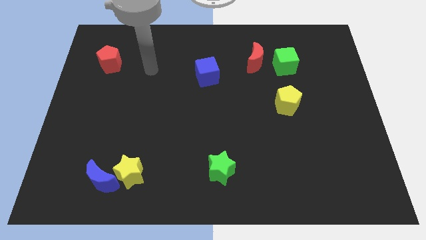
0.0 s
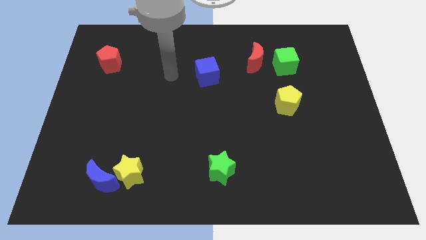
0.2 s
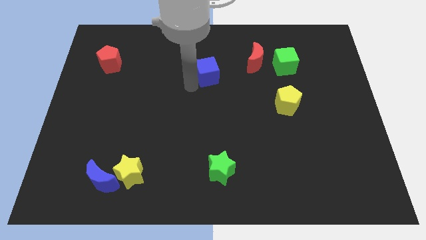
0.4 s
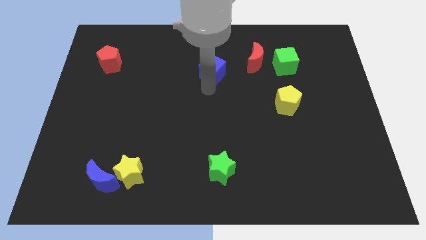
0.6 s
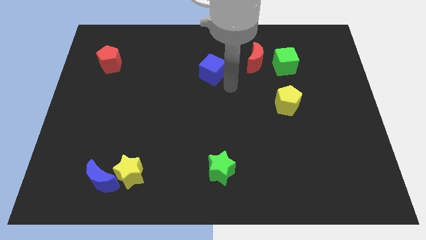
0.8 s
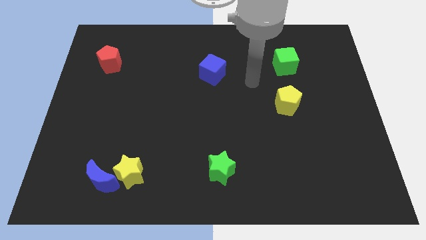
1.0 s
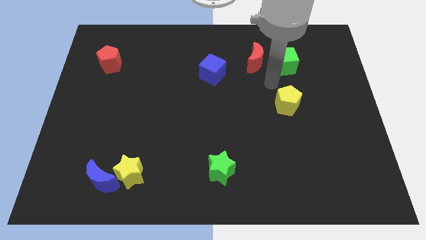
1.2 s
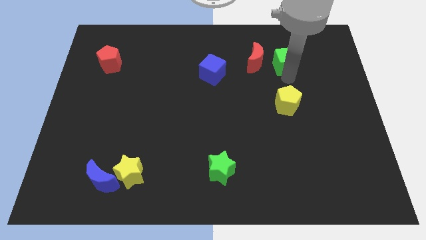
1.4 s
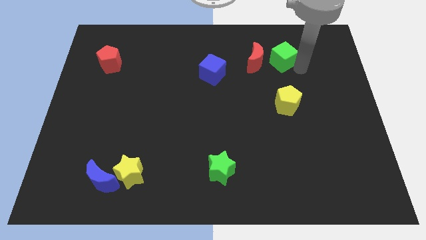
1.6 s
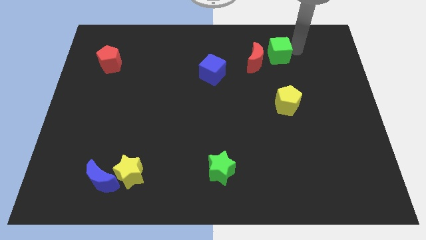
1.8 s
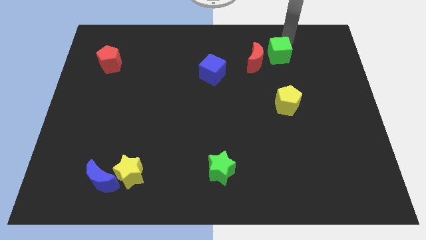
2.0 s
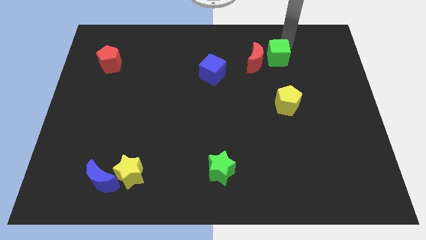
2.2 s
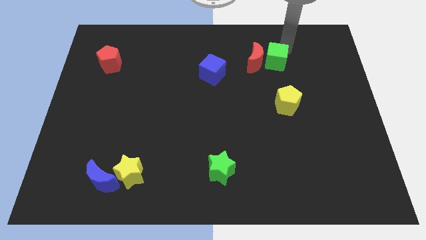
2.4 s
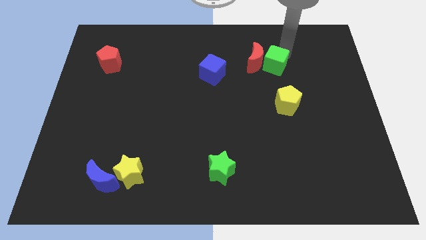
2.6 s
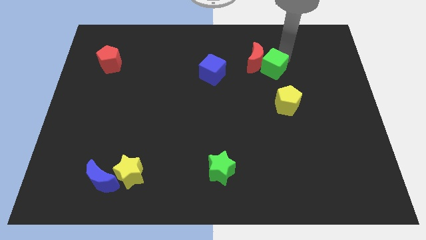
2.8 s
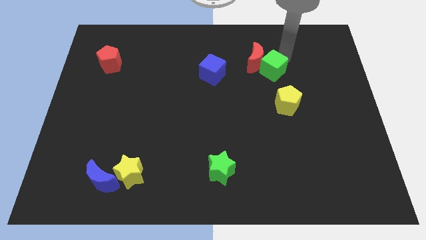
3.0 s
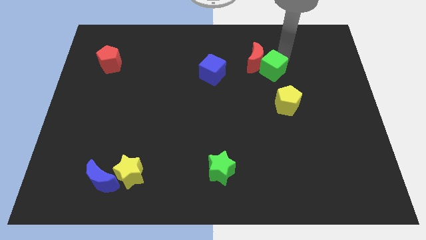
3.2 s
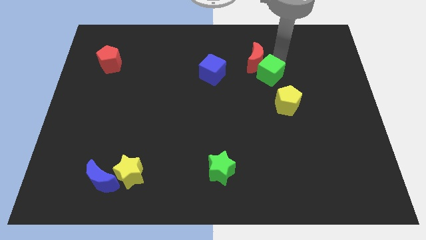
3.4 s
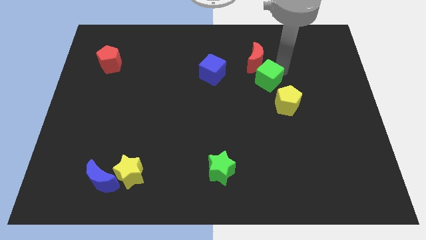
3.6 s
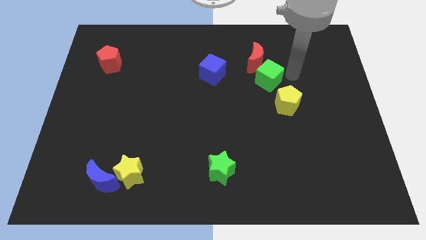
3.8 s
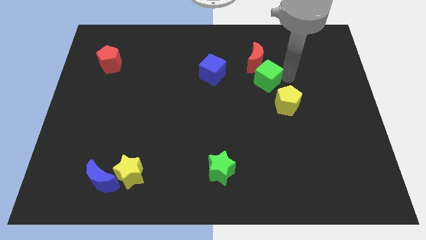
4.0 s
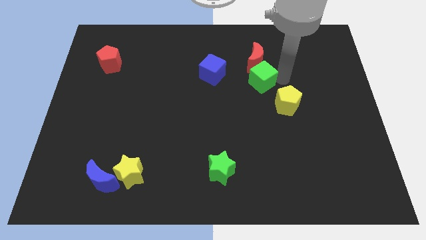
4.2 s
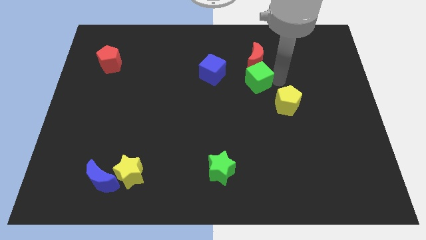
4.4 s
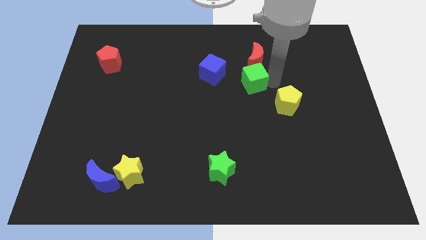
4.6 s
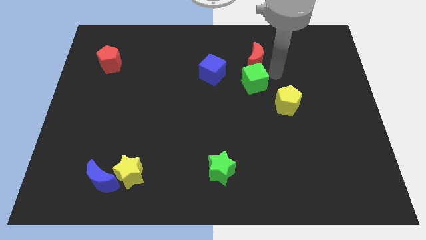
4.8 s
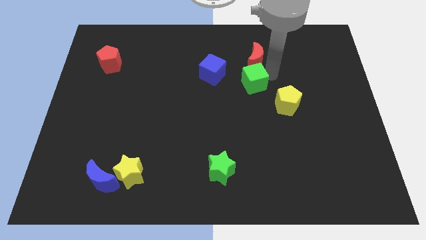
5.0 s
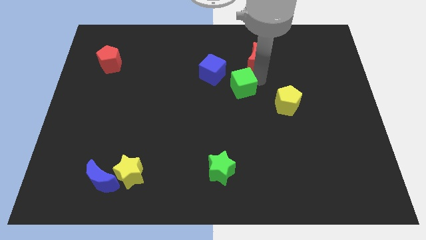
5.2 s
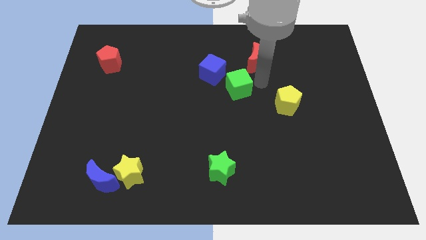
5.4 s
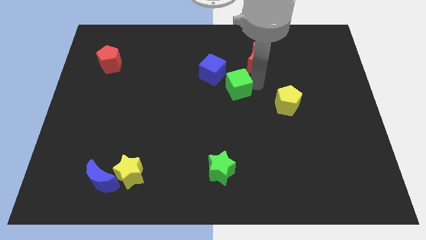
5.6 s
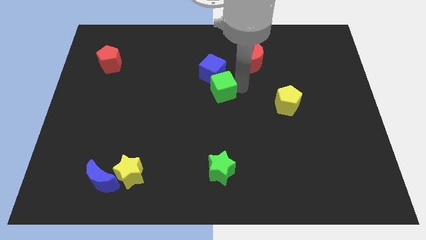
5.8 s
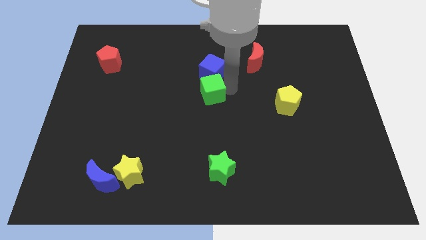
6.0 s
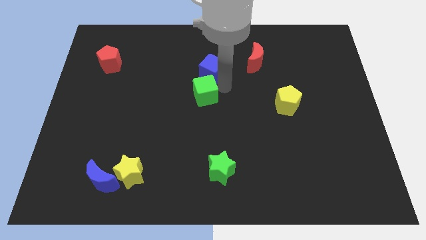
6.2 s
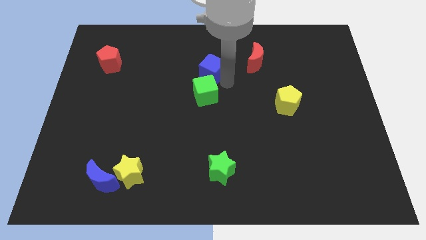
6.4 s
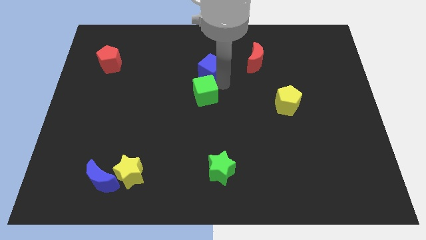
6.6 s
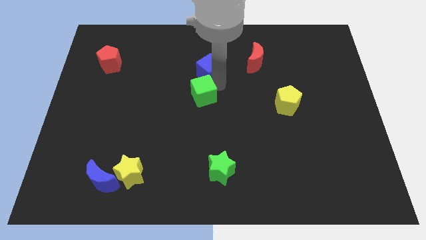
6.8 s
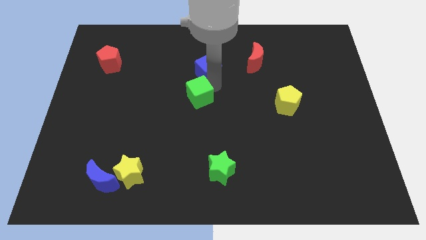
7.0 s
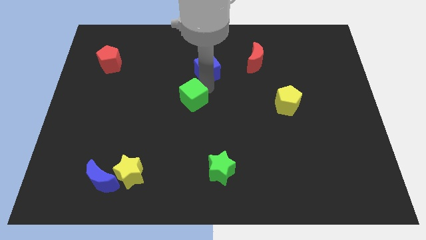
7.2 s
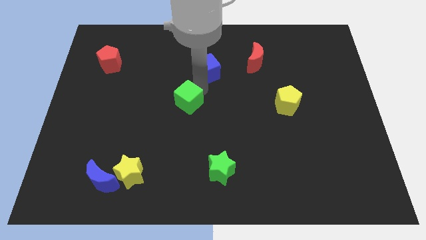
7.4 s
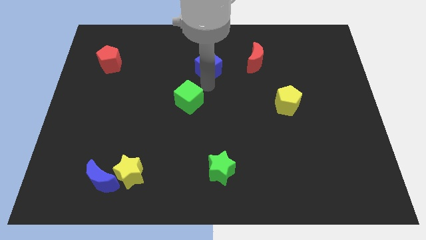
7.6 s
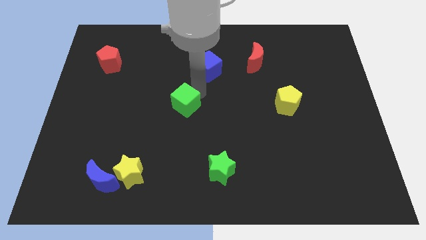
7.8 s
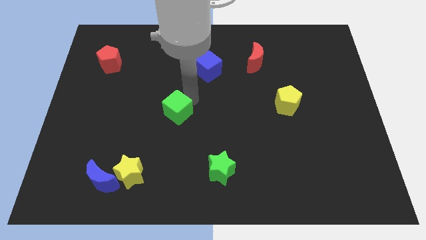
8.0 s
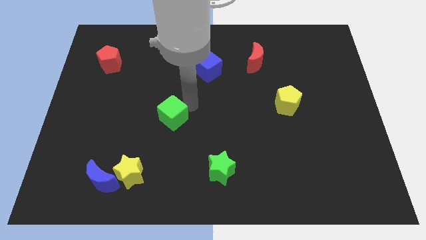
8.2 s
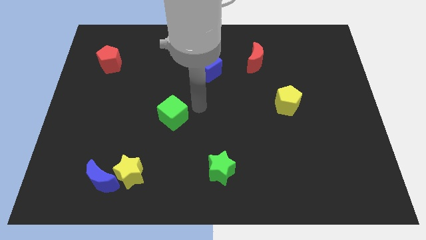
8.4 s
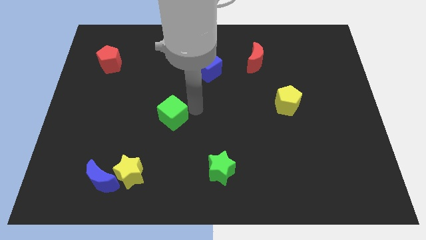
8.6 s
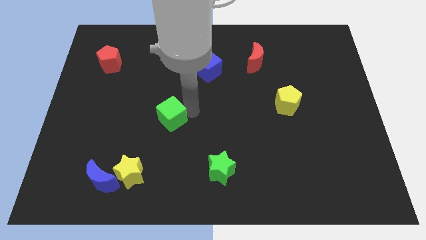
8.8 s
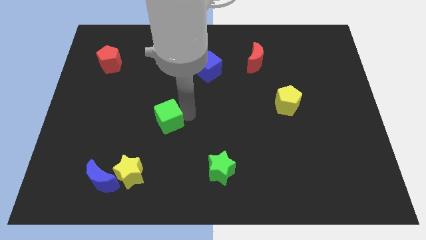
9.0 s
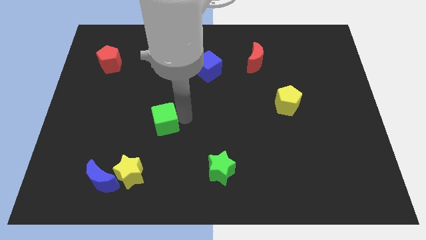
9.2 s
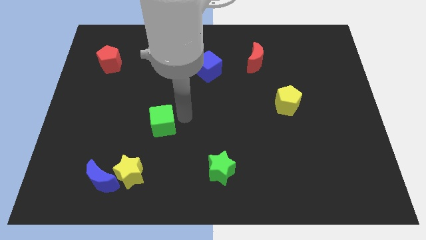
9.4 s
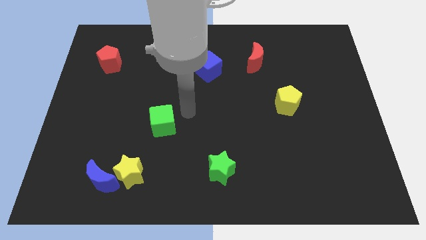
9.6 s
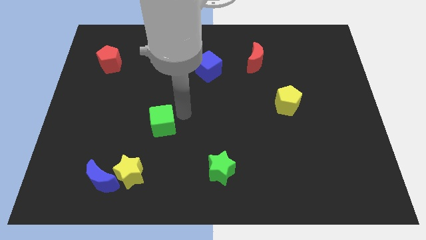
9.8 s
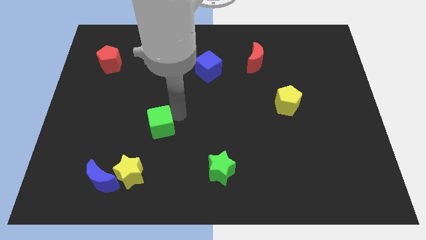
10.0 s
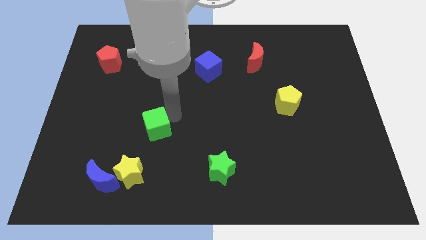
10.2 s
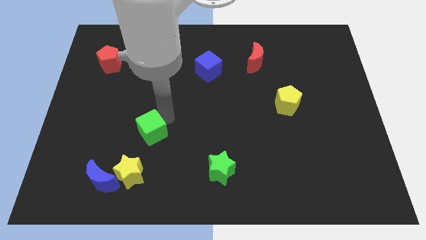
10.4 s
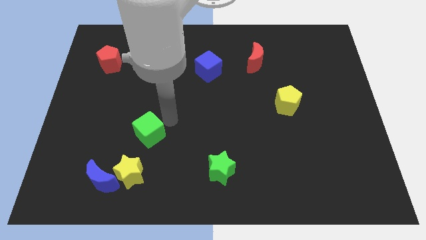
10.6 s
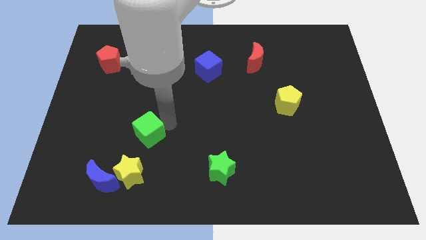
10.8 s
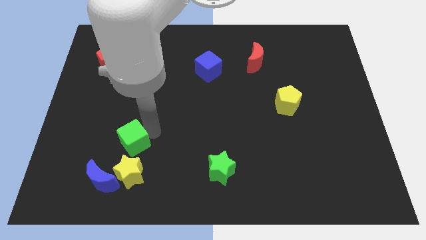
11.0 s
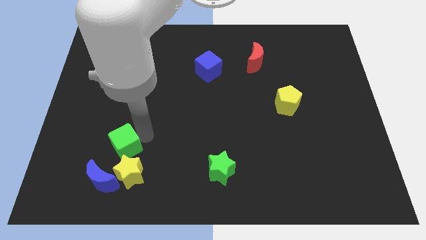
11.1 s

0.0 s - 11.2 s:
slide the green cube diagonally up and to the left of the yellow star

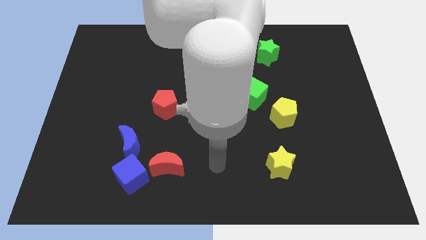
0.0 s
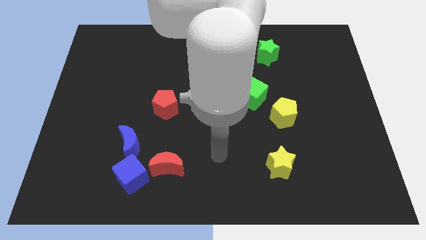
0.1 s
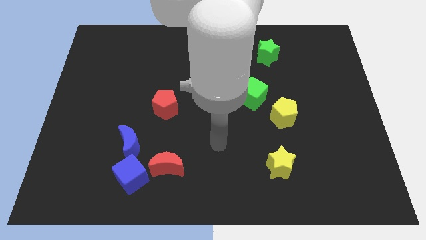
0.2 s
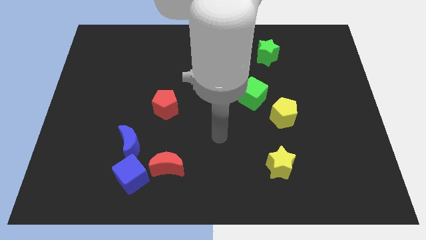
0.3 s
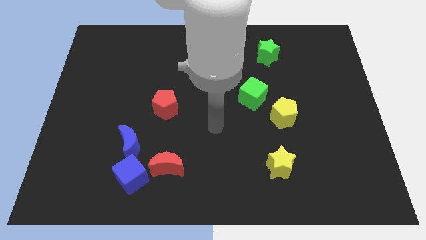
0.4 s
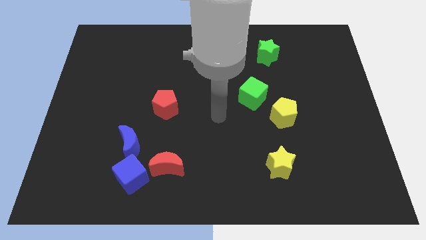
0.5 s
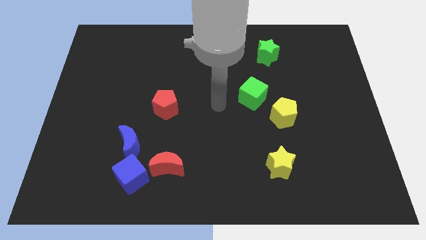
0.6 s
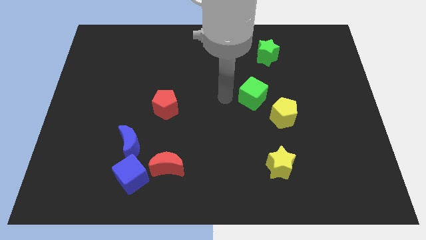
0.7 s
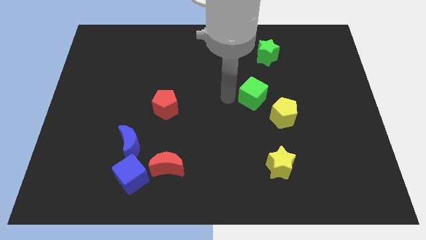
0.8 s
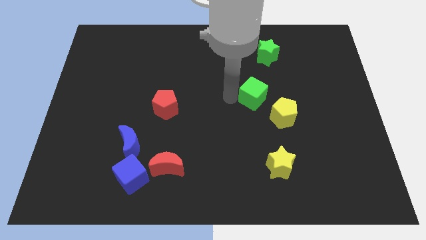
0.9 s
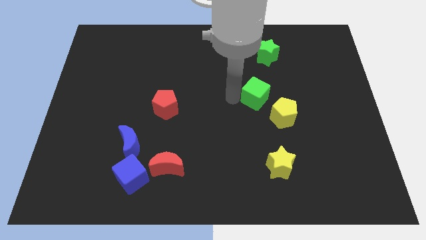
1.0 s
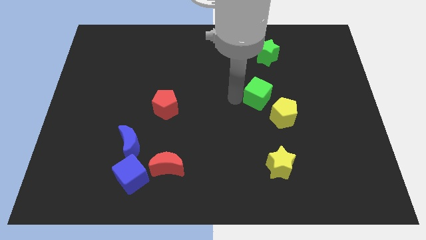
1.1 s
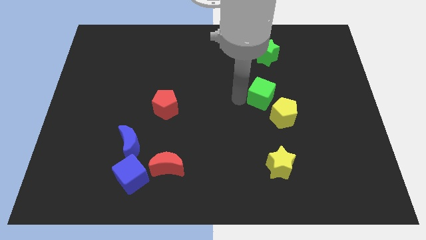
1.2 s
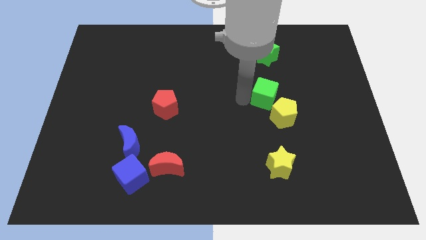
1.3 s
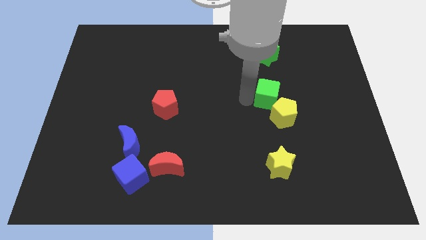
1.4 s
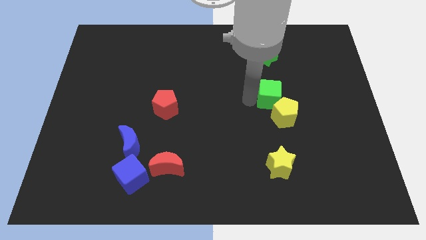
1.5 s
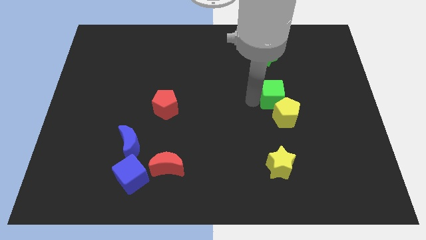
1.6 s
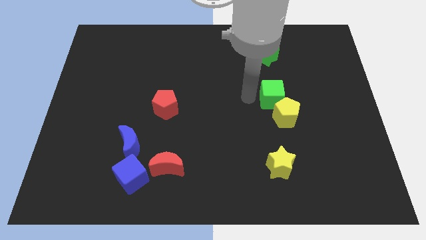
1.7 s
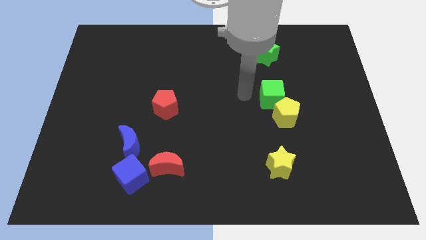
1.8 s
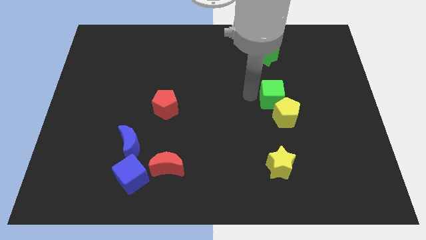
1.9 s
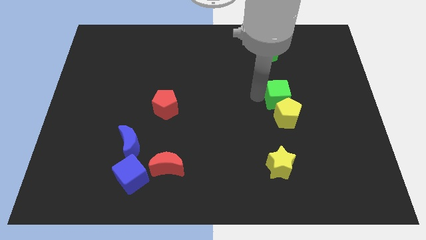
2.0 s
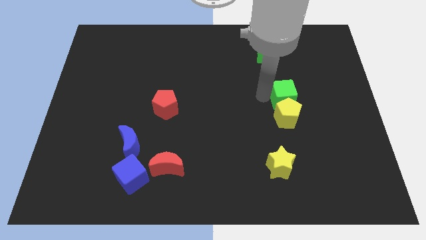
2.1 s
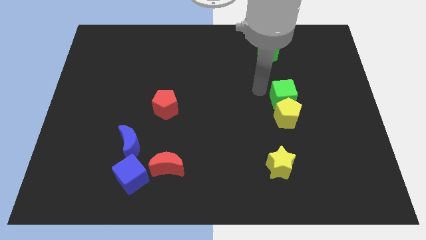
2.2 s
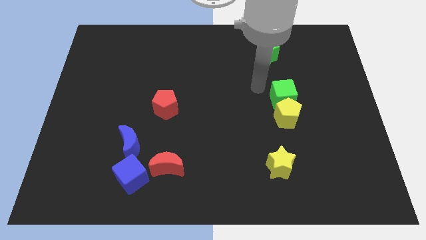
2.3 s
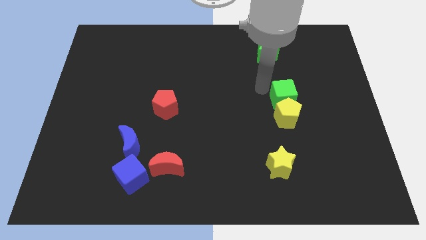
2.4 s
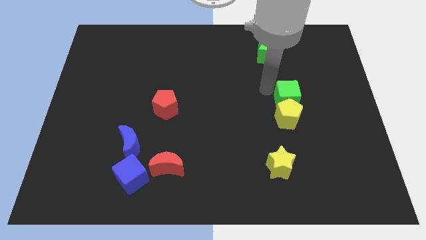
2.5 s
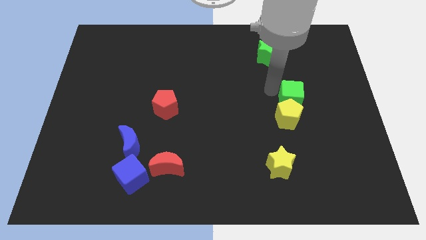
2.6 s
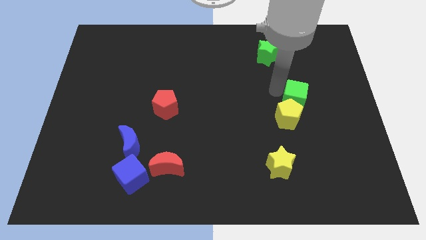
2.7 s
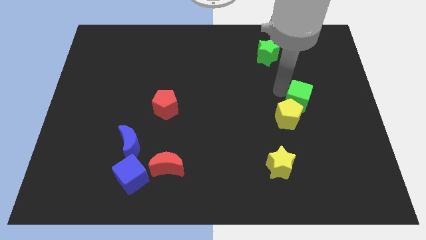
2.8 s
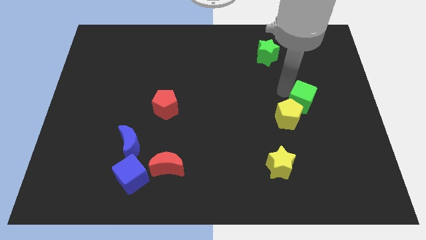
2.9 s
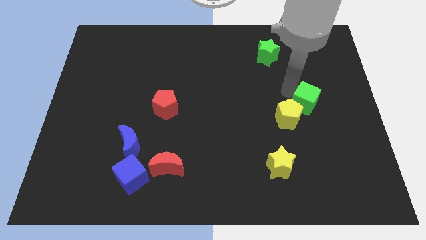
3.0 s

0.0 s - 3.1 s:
put the green cube to the right of the yellow pentagon
